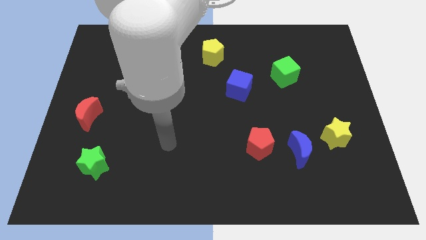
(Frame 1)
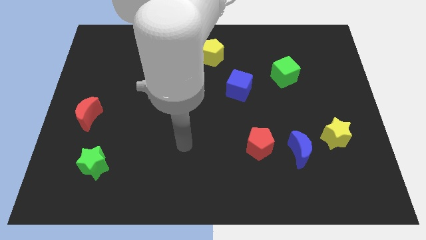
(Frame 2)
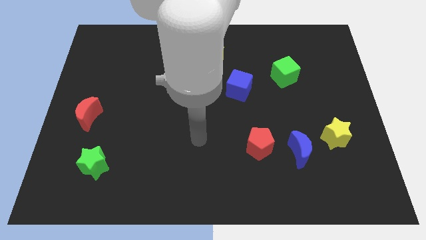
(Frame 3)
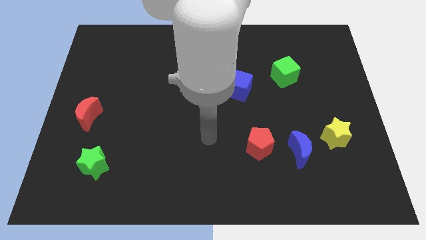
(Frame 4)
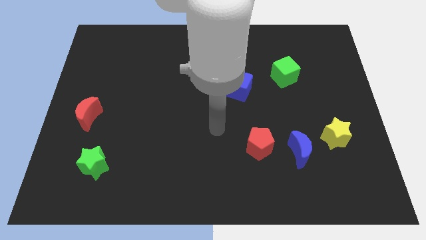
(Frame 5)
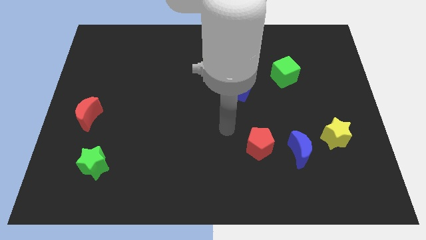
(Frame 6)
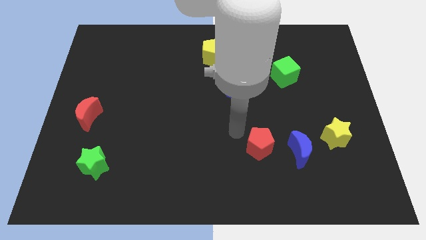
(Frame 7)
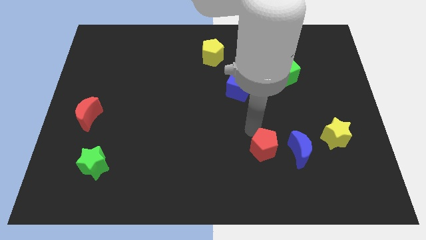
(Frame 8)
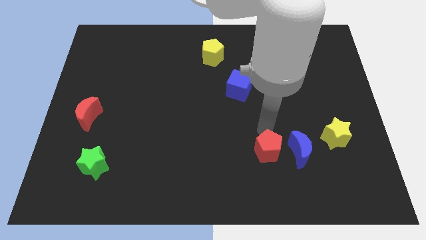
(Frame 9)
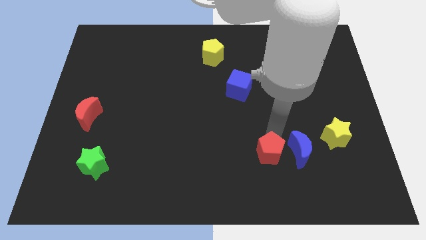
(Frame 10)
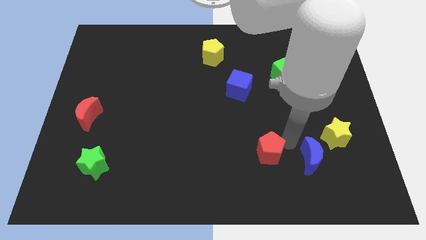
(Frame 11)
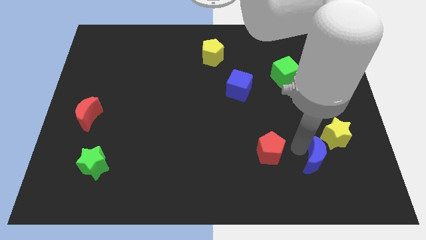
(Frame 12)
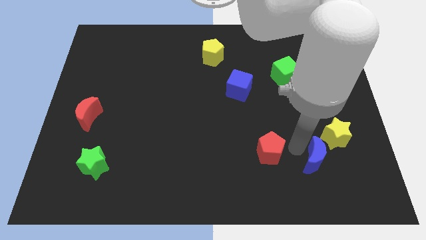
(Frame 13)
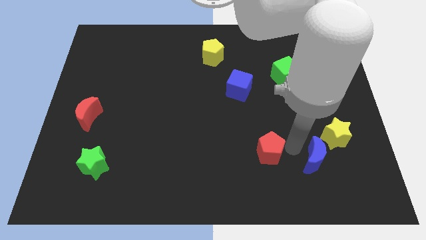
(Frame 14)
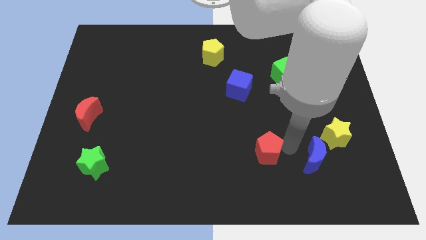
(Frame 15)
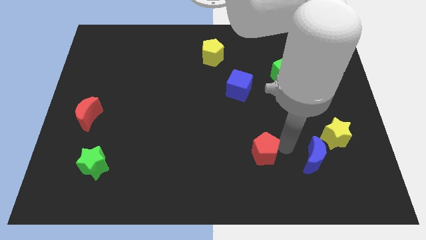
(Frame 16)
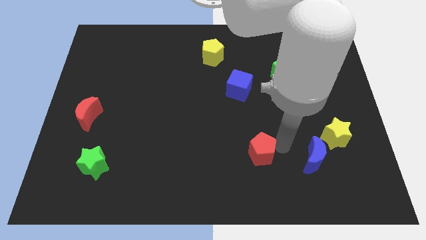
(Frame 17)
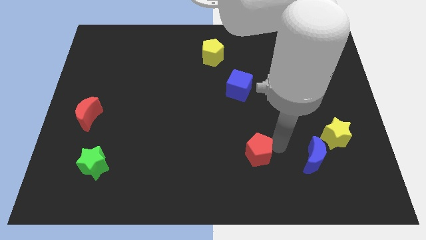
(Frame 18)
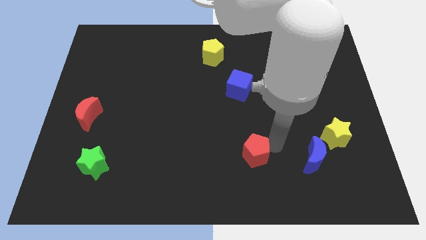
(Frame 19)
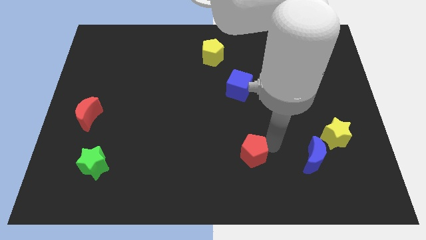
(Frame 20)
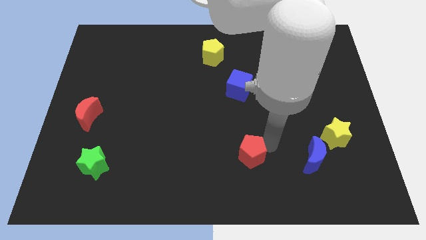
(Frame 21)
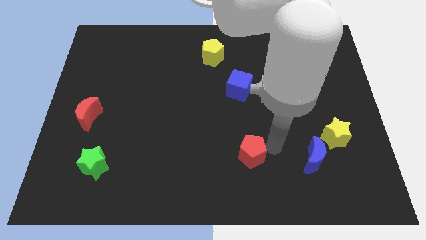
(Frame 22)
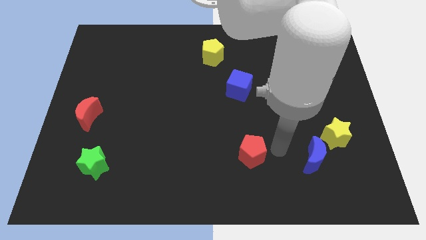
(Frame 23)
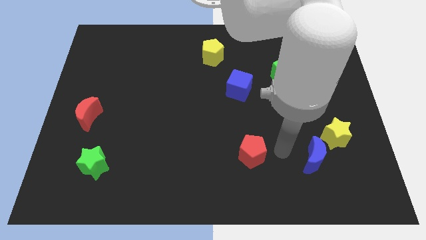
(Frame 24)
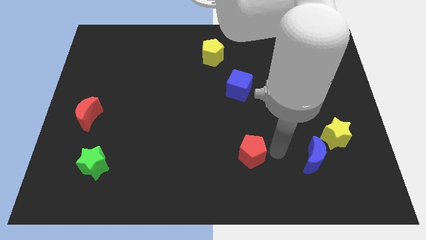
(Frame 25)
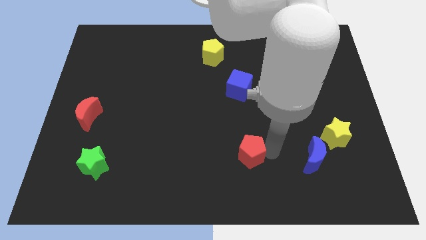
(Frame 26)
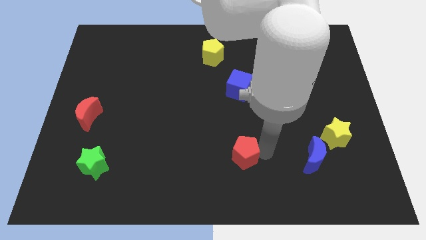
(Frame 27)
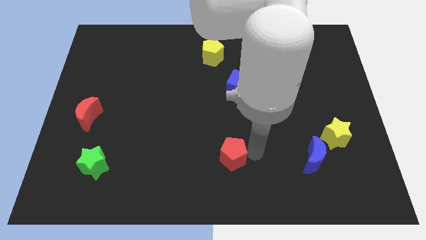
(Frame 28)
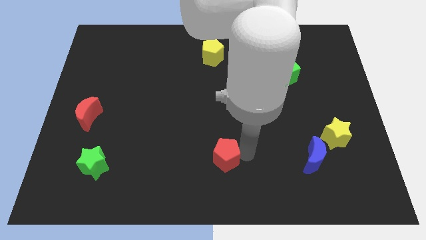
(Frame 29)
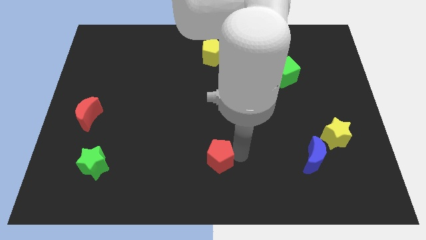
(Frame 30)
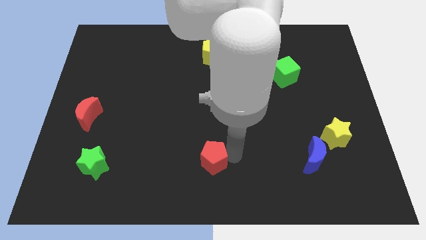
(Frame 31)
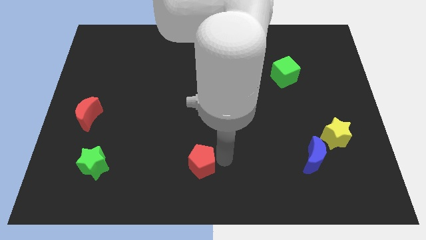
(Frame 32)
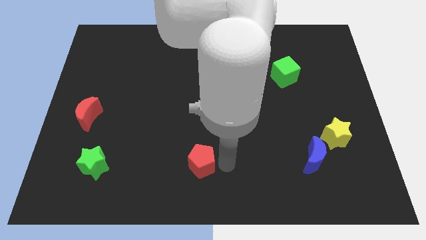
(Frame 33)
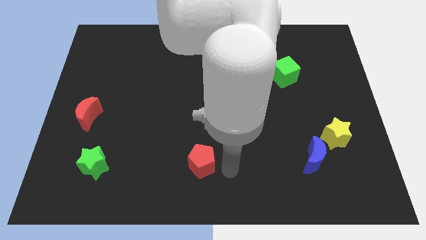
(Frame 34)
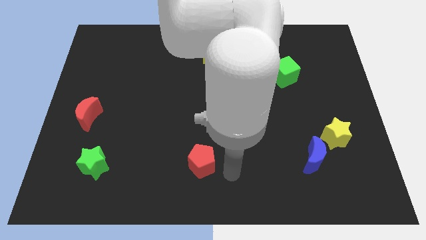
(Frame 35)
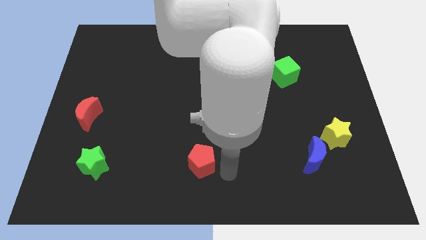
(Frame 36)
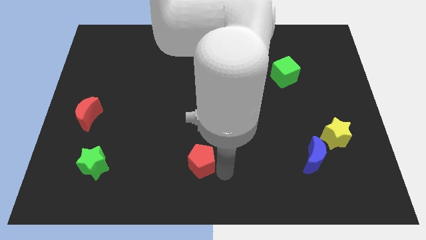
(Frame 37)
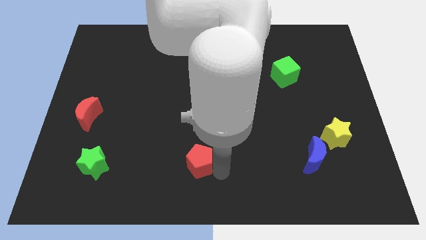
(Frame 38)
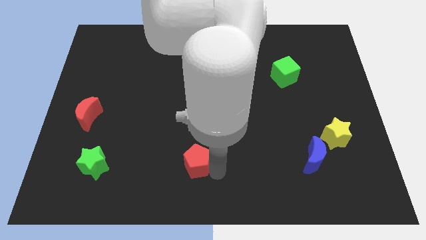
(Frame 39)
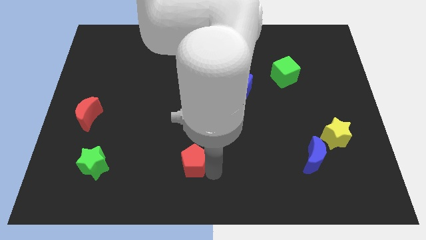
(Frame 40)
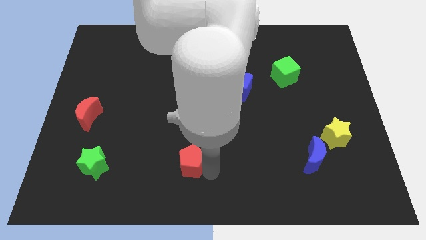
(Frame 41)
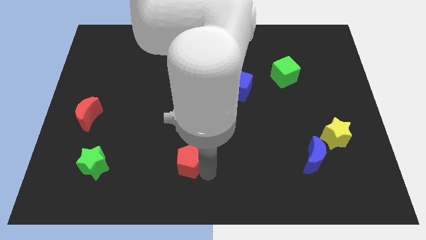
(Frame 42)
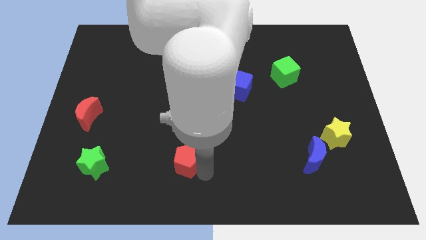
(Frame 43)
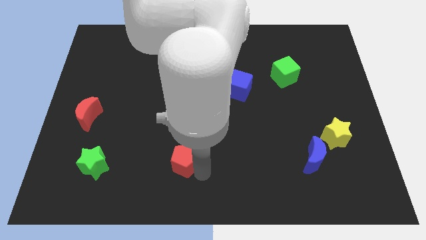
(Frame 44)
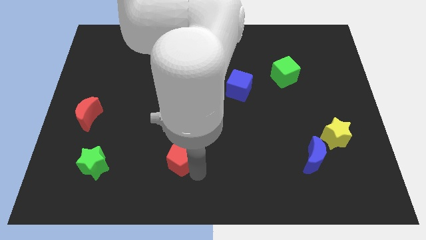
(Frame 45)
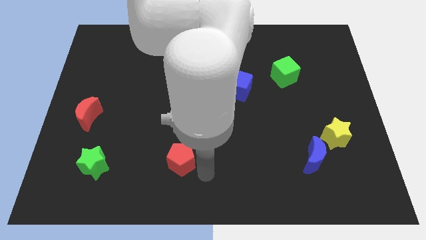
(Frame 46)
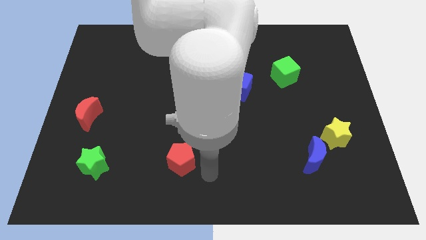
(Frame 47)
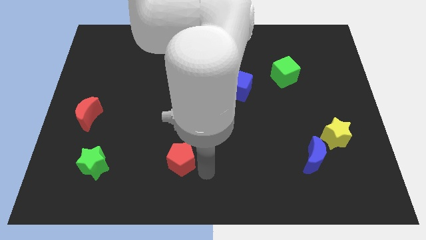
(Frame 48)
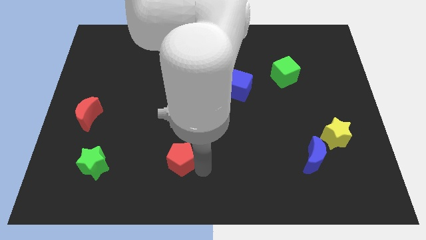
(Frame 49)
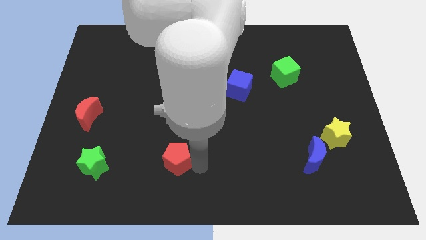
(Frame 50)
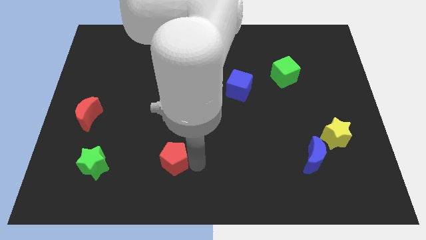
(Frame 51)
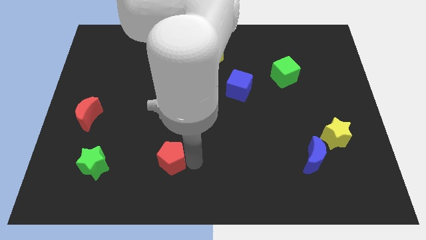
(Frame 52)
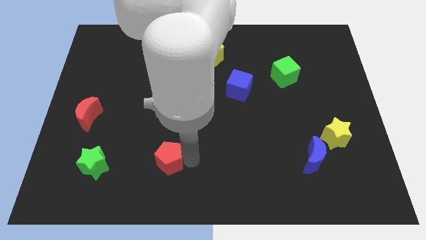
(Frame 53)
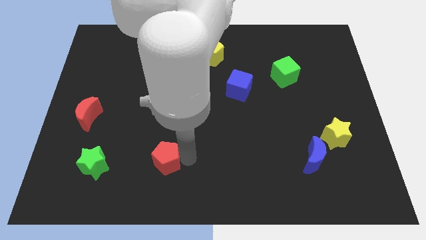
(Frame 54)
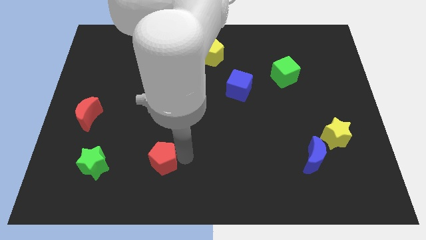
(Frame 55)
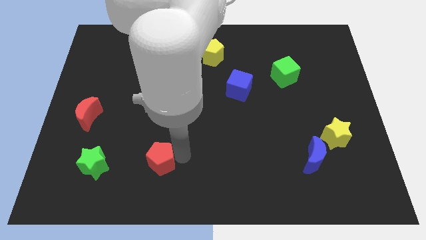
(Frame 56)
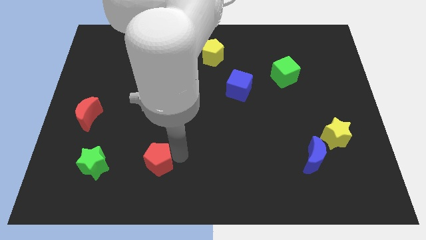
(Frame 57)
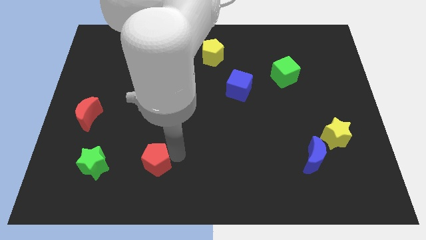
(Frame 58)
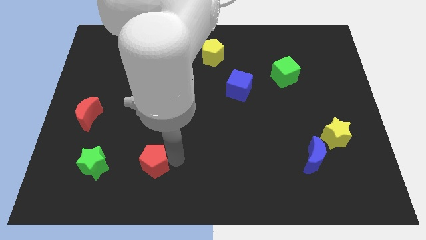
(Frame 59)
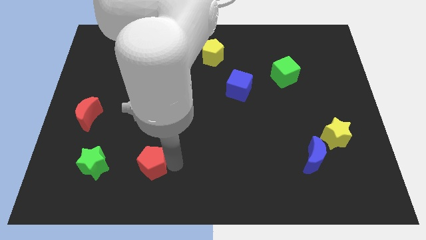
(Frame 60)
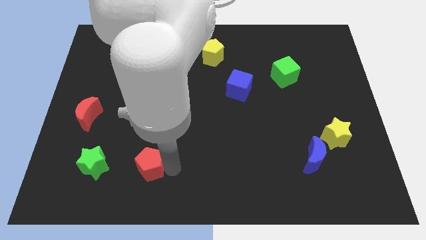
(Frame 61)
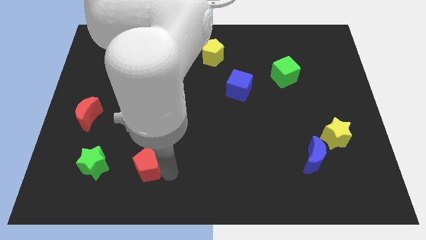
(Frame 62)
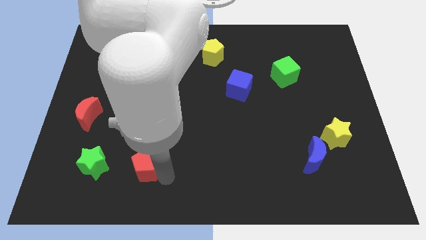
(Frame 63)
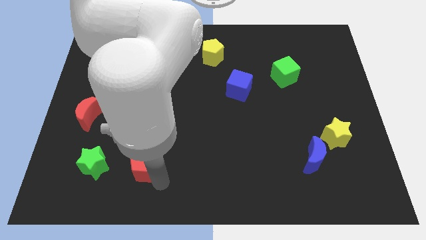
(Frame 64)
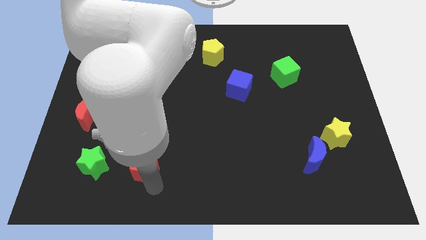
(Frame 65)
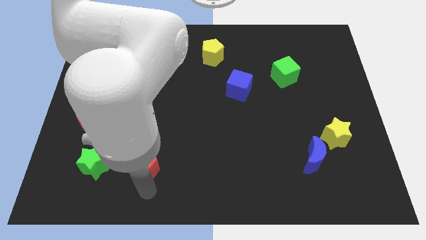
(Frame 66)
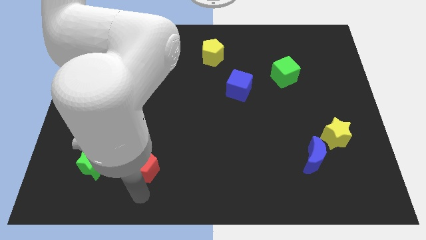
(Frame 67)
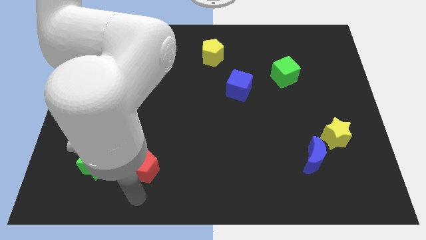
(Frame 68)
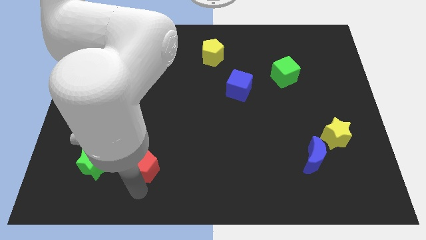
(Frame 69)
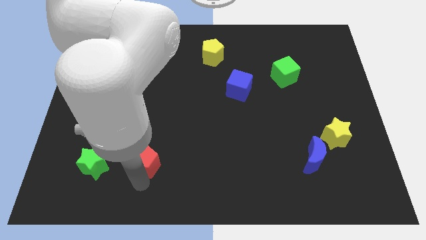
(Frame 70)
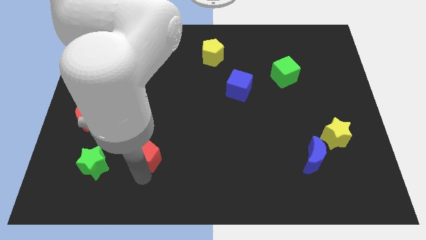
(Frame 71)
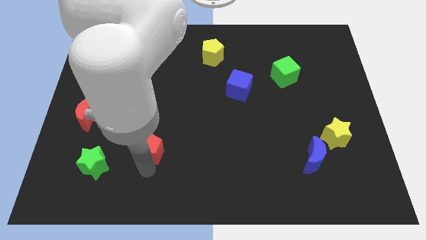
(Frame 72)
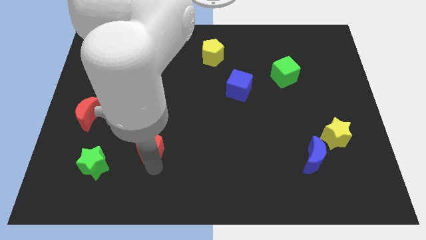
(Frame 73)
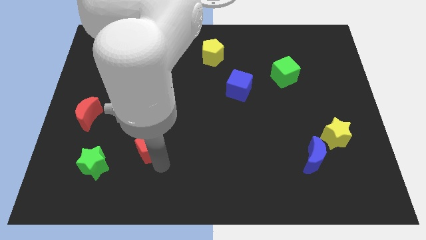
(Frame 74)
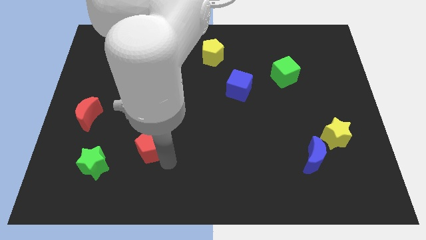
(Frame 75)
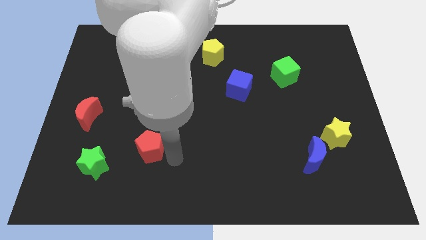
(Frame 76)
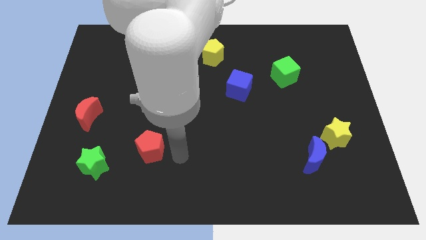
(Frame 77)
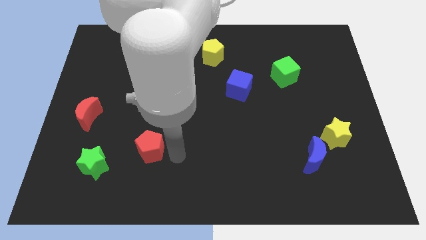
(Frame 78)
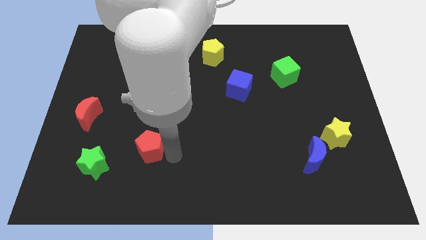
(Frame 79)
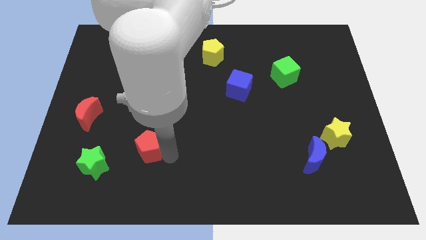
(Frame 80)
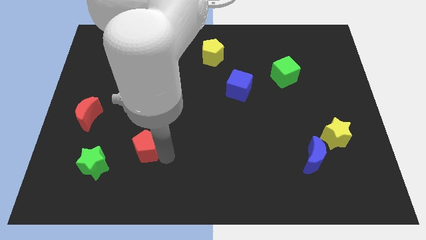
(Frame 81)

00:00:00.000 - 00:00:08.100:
put the red pentagon diagonally up and to the right of the green star
